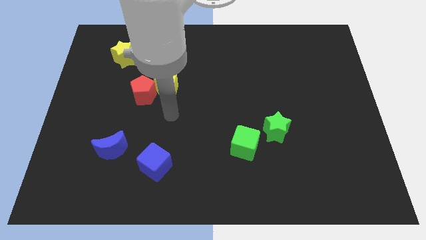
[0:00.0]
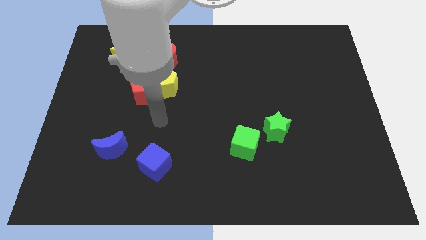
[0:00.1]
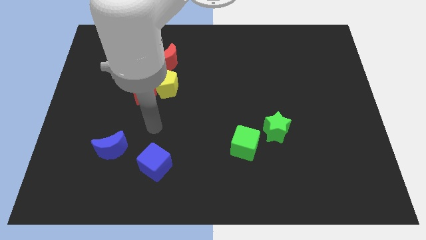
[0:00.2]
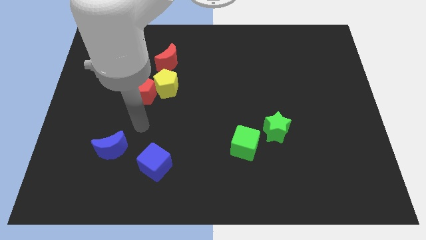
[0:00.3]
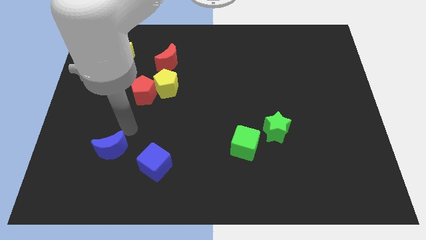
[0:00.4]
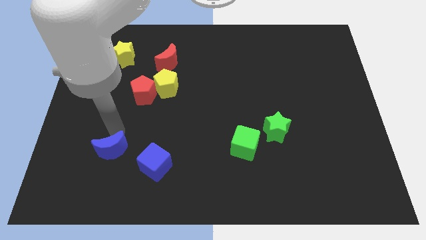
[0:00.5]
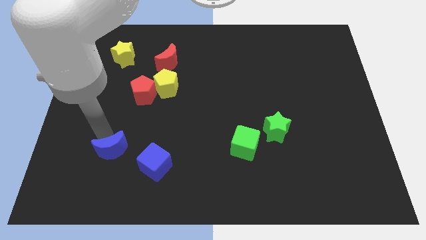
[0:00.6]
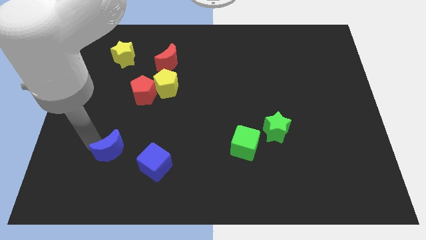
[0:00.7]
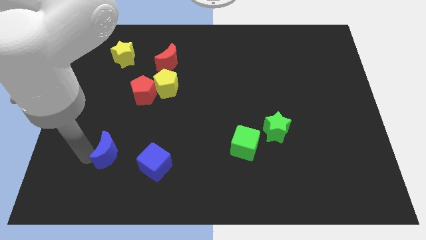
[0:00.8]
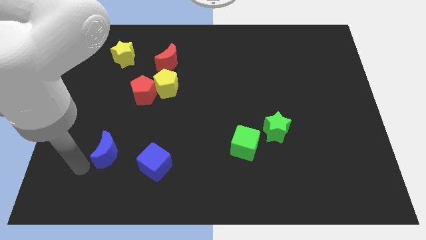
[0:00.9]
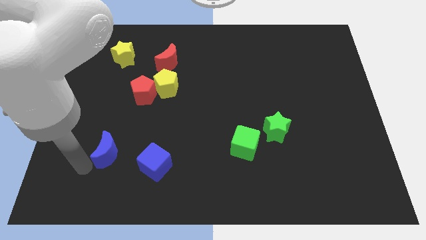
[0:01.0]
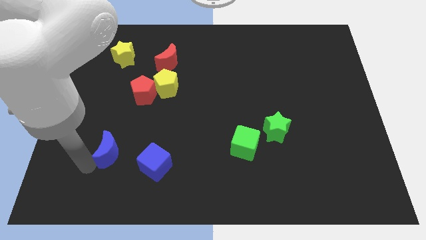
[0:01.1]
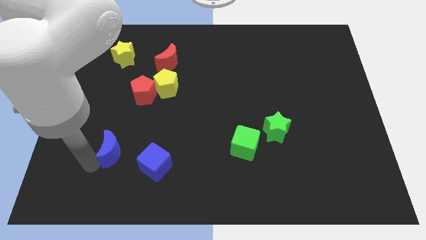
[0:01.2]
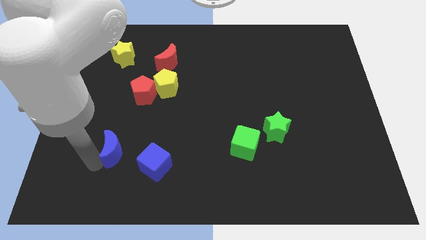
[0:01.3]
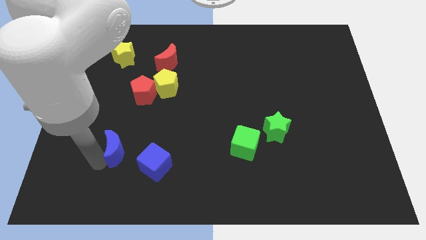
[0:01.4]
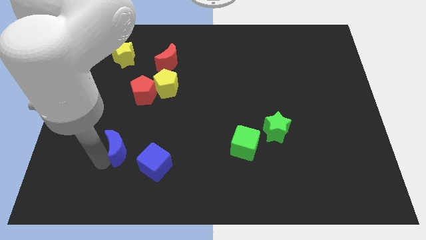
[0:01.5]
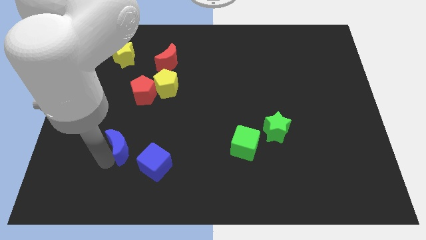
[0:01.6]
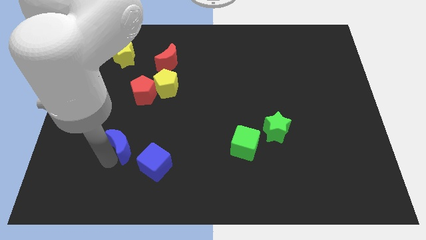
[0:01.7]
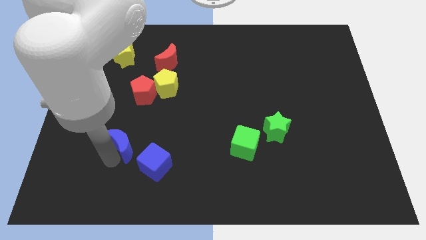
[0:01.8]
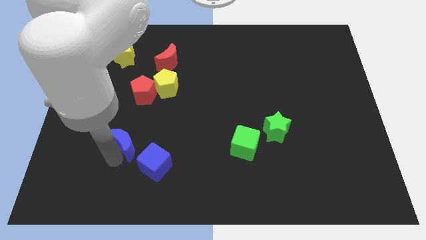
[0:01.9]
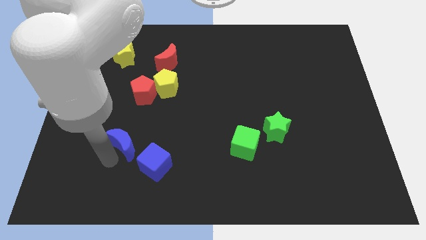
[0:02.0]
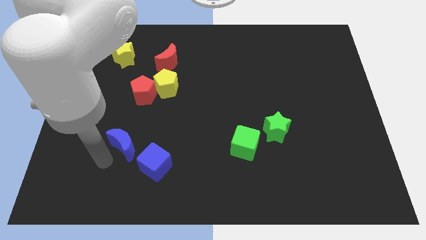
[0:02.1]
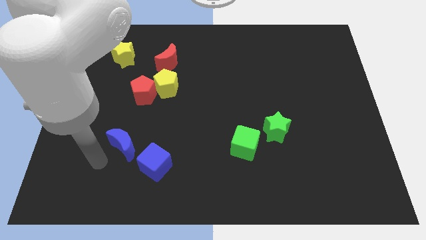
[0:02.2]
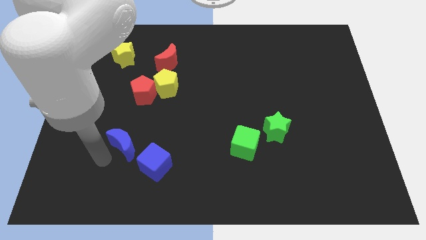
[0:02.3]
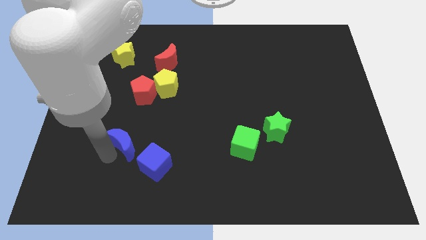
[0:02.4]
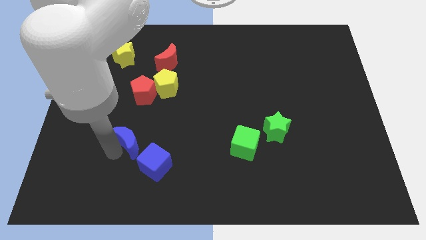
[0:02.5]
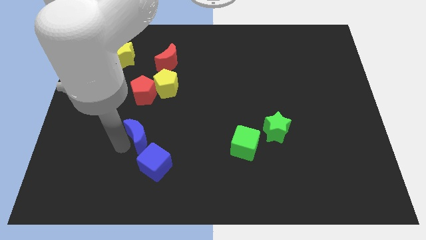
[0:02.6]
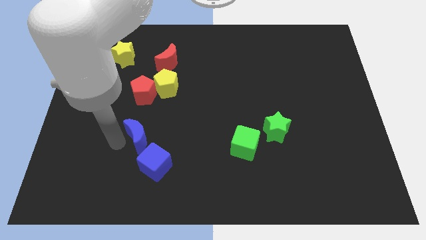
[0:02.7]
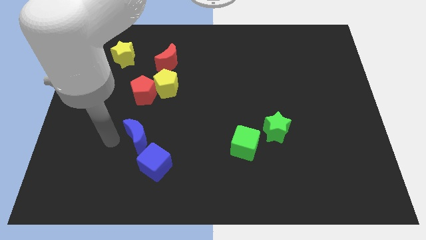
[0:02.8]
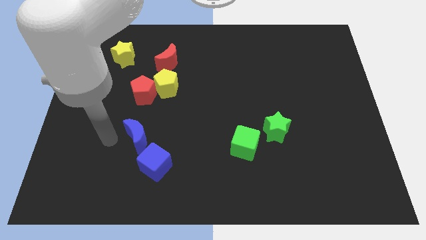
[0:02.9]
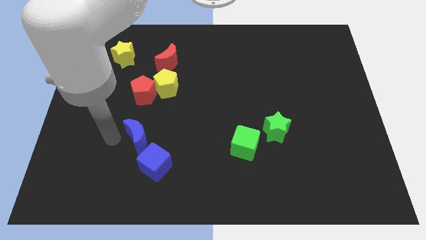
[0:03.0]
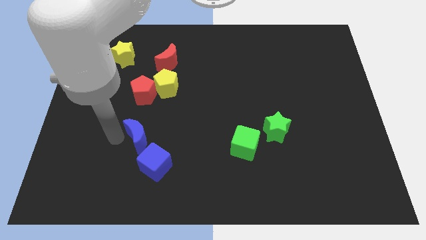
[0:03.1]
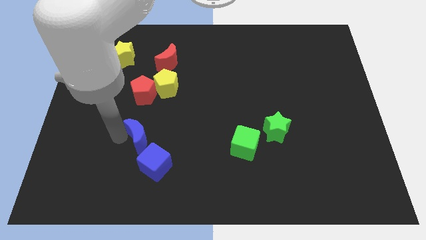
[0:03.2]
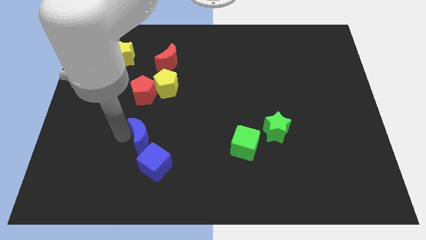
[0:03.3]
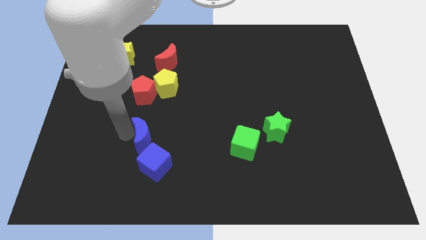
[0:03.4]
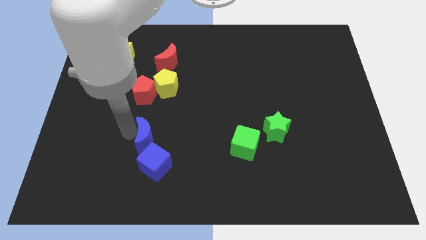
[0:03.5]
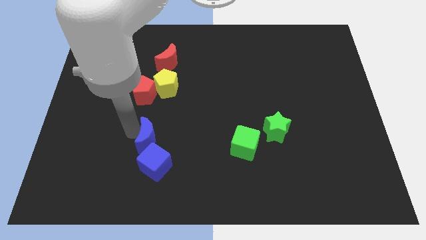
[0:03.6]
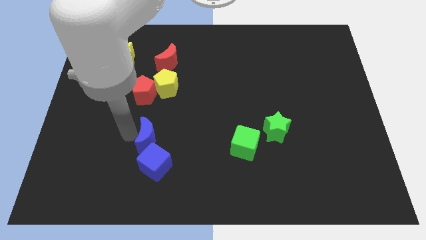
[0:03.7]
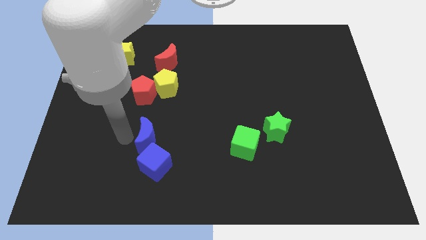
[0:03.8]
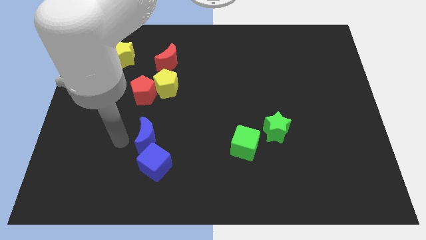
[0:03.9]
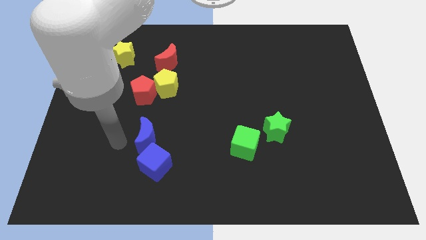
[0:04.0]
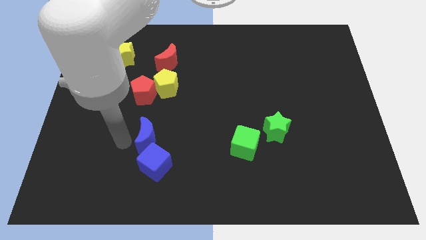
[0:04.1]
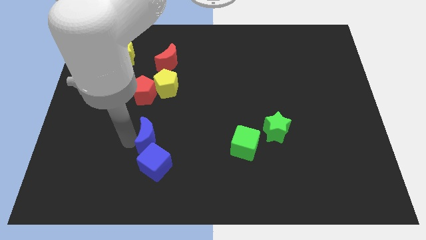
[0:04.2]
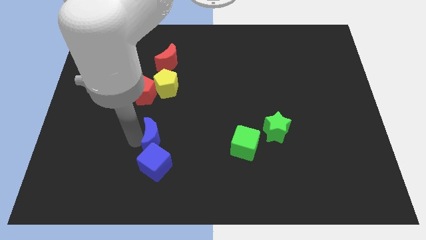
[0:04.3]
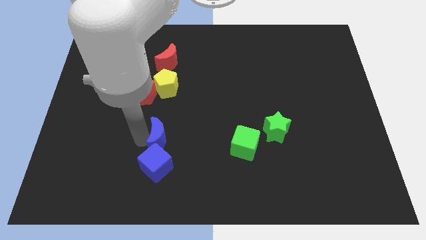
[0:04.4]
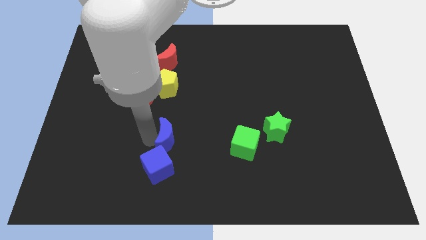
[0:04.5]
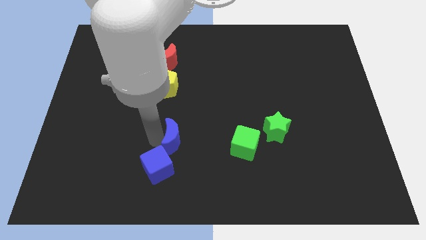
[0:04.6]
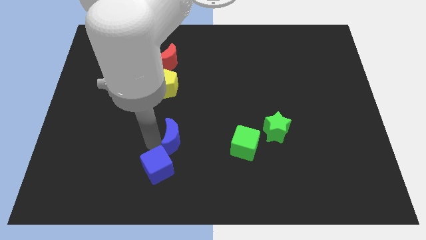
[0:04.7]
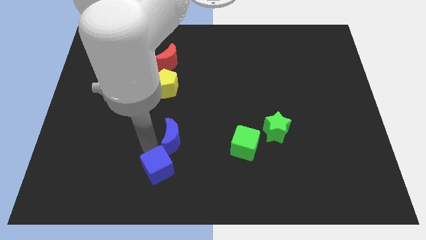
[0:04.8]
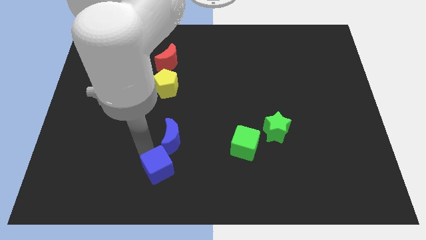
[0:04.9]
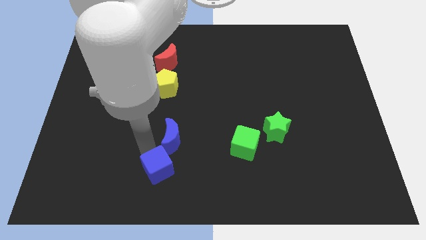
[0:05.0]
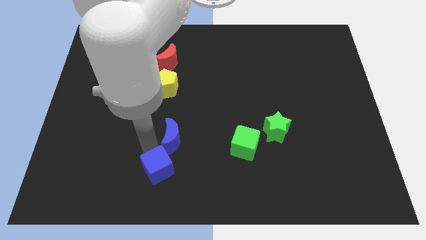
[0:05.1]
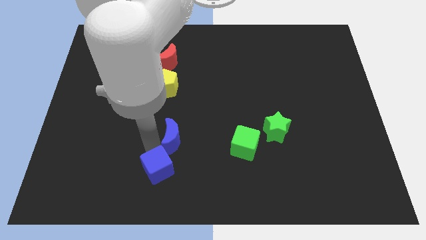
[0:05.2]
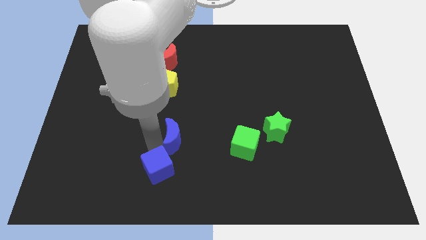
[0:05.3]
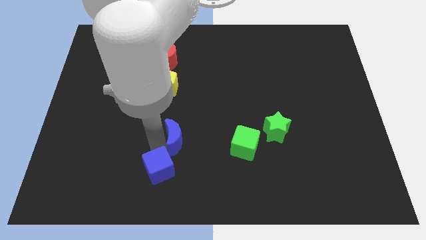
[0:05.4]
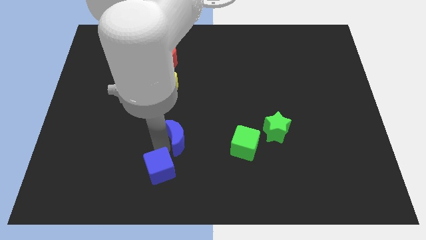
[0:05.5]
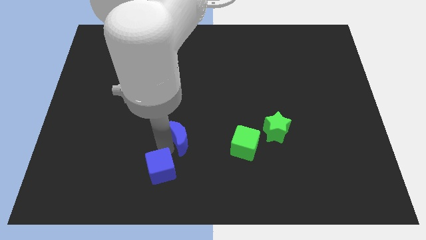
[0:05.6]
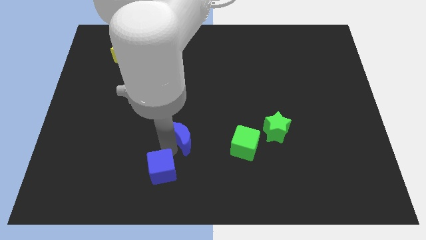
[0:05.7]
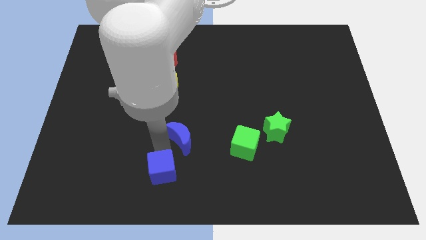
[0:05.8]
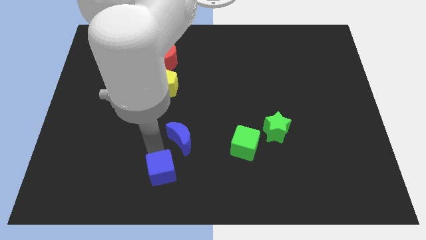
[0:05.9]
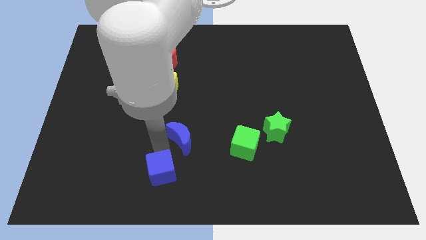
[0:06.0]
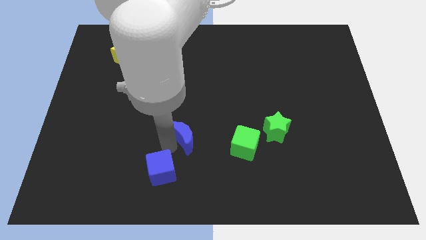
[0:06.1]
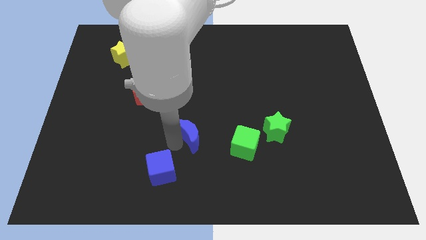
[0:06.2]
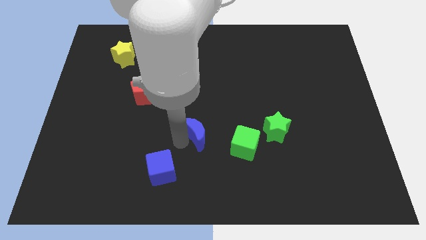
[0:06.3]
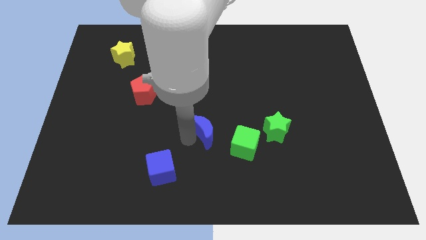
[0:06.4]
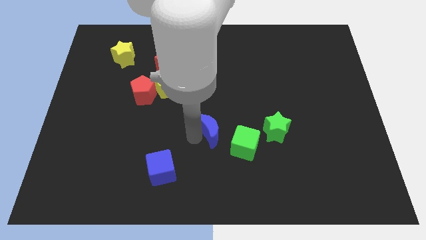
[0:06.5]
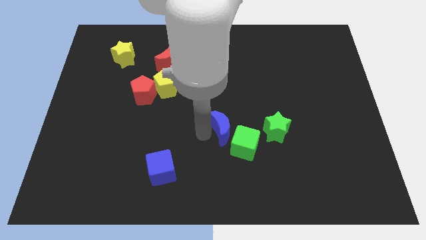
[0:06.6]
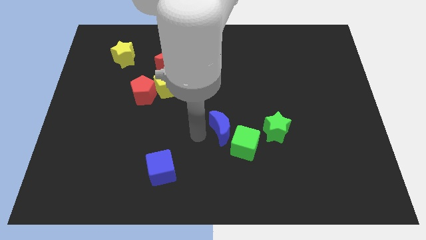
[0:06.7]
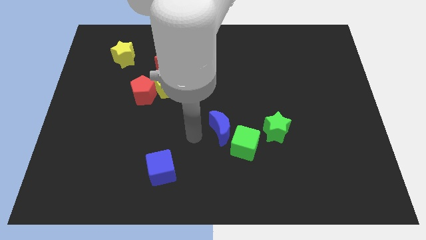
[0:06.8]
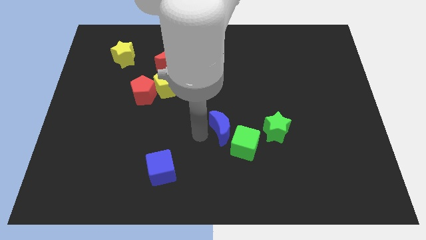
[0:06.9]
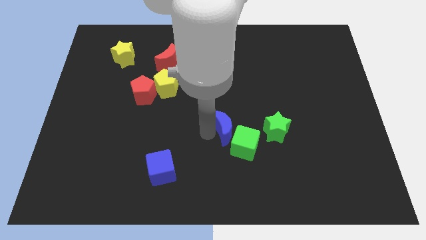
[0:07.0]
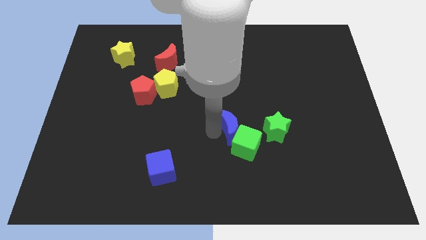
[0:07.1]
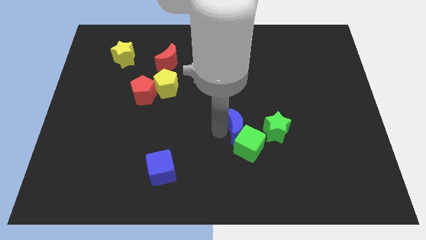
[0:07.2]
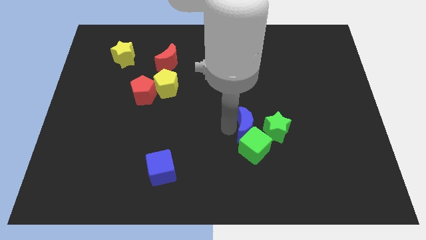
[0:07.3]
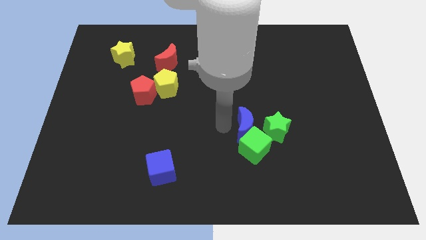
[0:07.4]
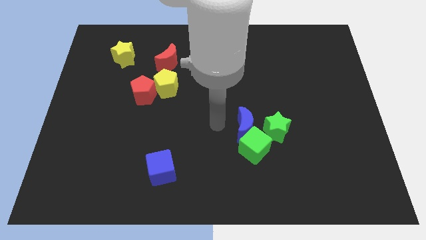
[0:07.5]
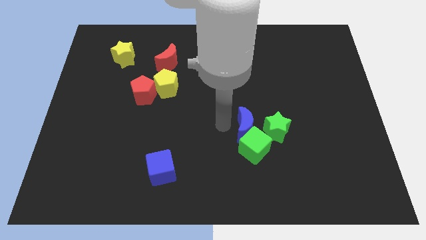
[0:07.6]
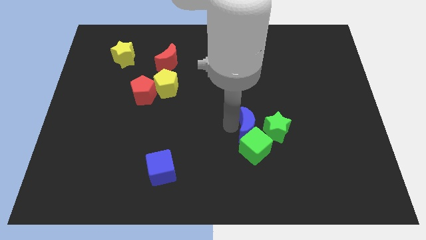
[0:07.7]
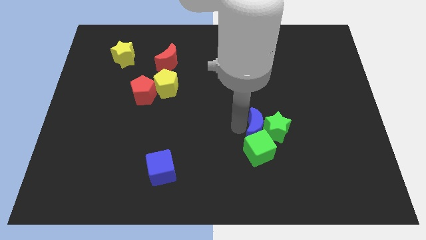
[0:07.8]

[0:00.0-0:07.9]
put the blue moon to the green star
